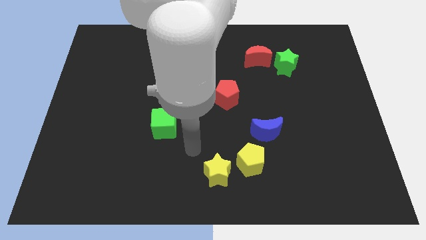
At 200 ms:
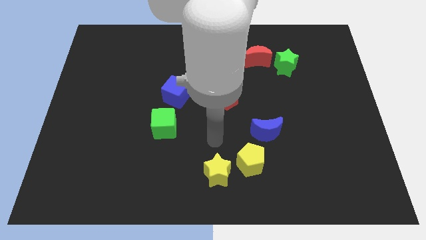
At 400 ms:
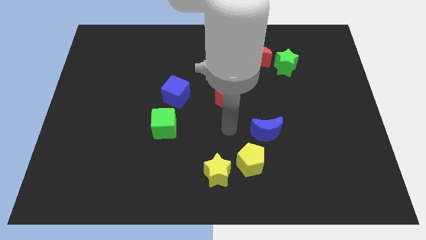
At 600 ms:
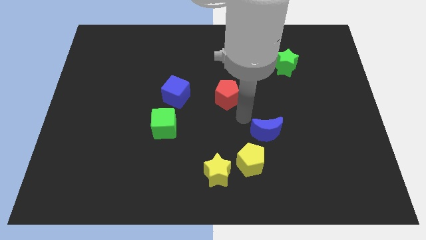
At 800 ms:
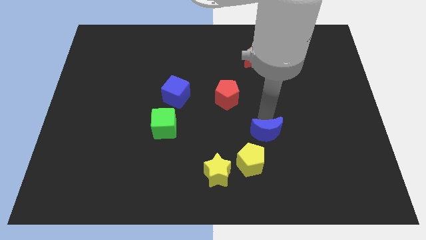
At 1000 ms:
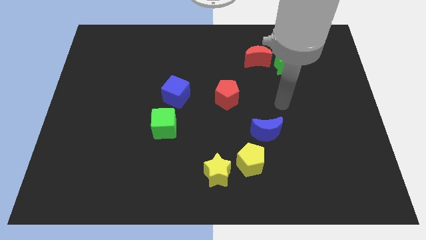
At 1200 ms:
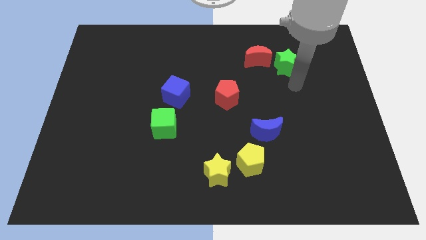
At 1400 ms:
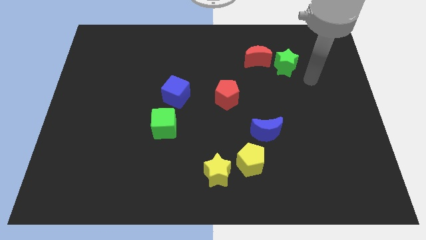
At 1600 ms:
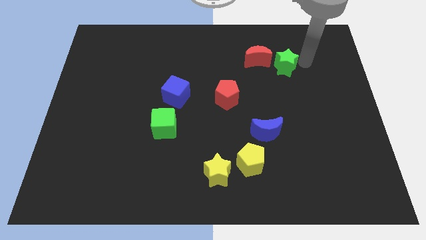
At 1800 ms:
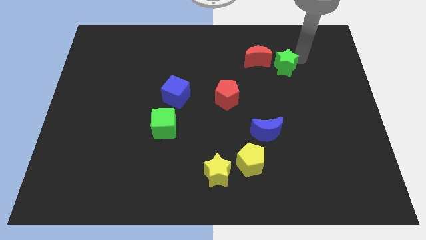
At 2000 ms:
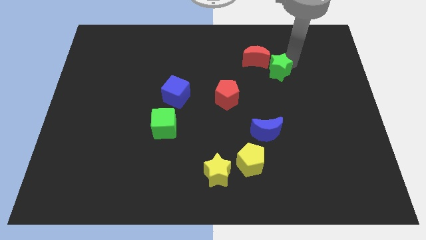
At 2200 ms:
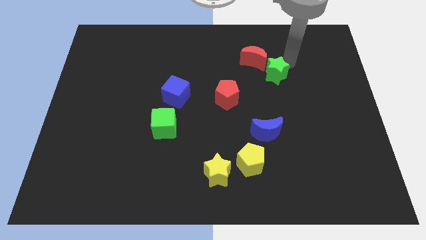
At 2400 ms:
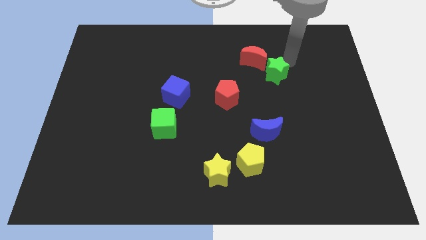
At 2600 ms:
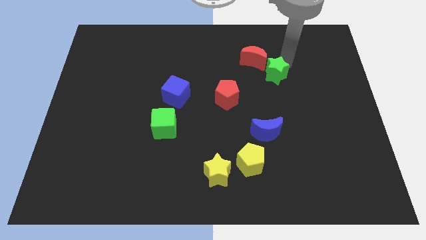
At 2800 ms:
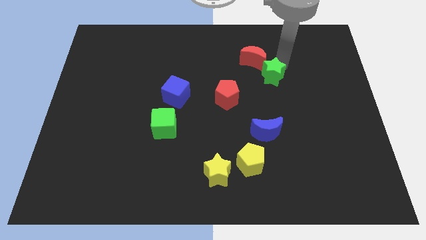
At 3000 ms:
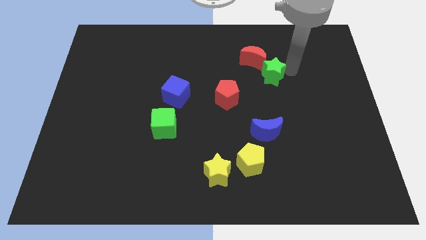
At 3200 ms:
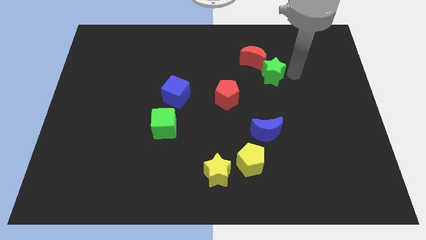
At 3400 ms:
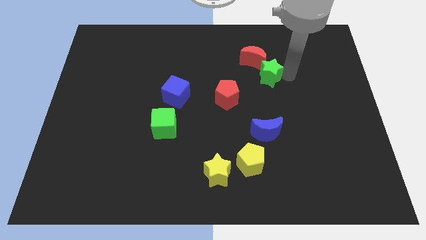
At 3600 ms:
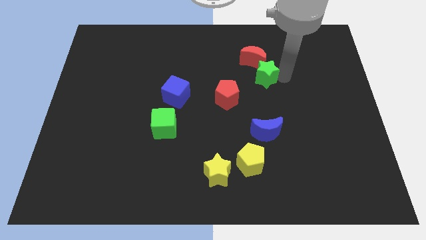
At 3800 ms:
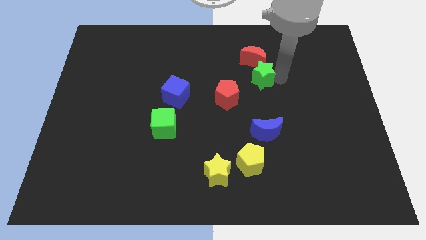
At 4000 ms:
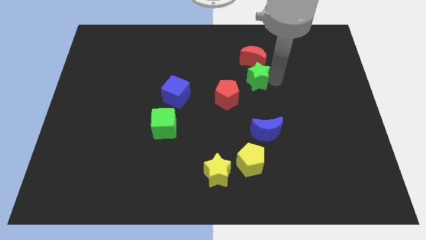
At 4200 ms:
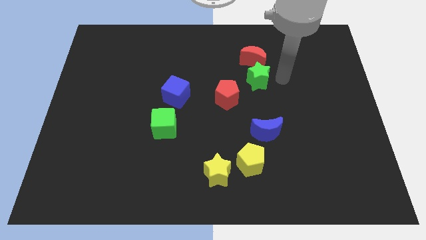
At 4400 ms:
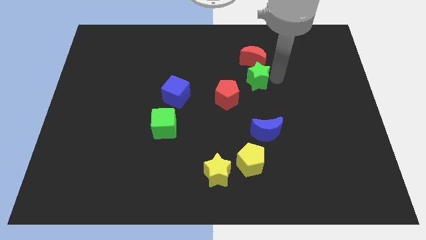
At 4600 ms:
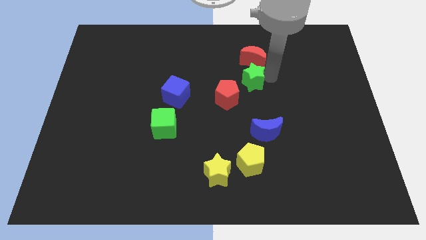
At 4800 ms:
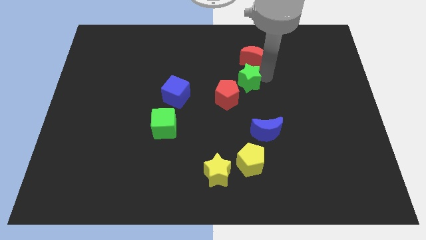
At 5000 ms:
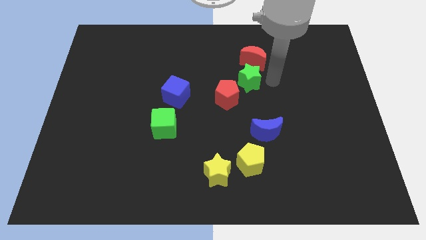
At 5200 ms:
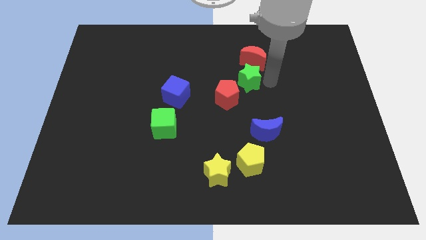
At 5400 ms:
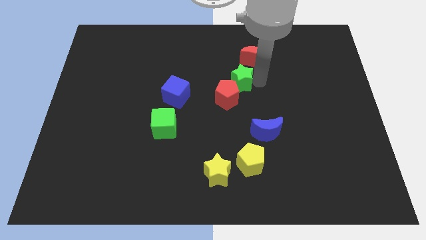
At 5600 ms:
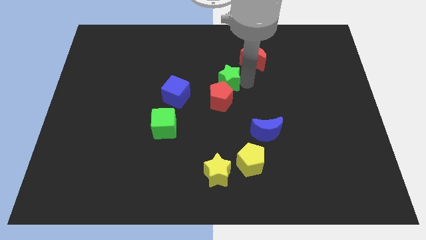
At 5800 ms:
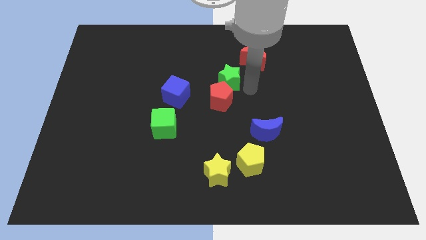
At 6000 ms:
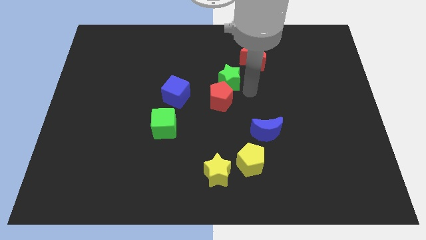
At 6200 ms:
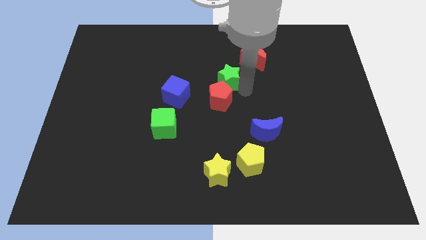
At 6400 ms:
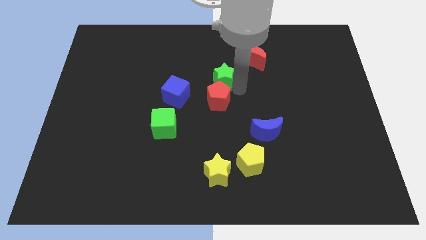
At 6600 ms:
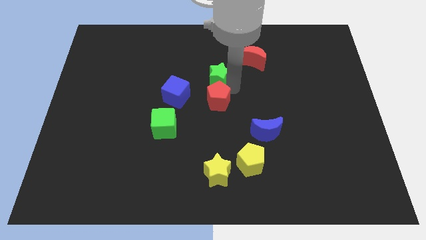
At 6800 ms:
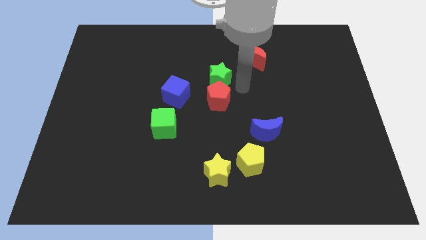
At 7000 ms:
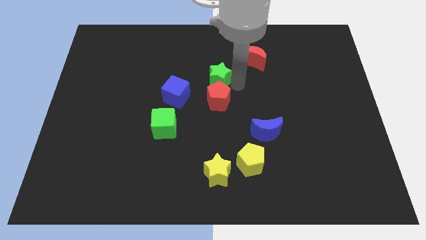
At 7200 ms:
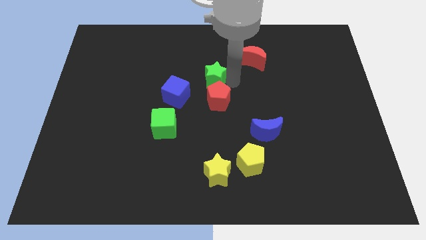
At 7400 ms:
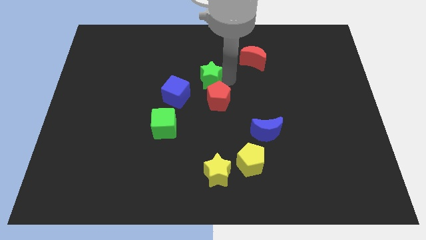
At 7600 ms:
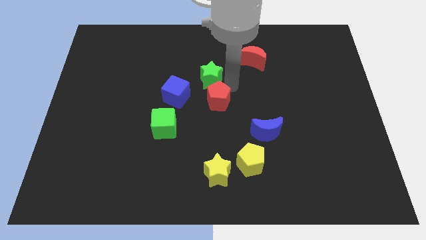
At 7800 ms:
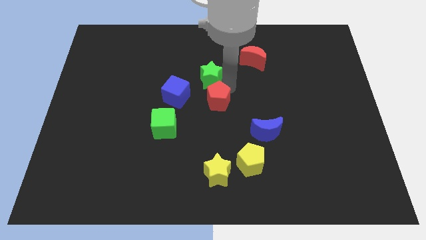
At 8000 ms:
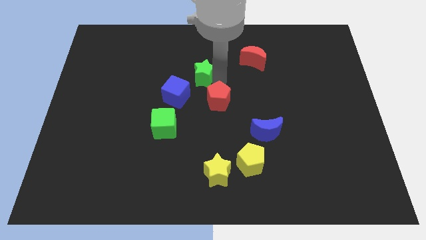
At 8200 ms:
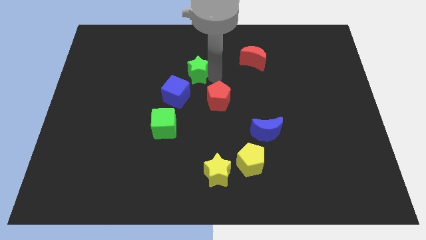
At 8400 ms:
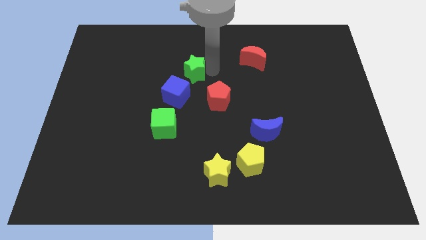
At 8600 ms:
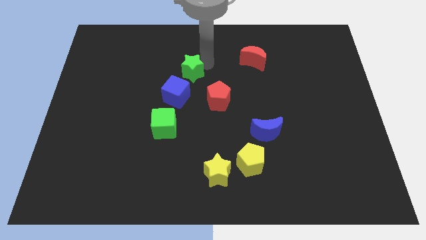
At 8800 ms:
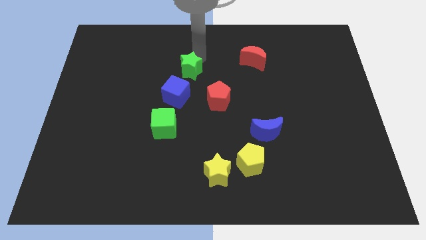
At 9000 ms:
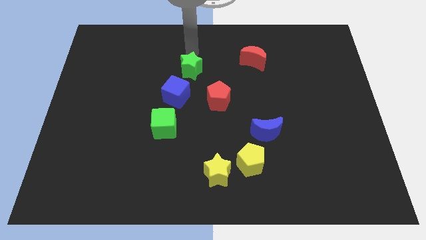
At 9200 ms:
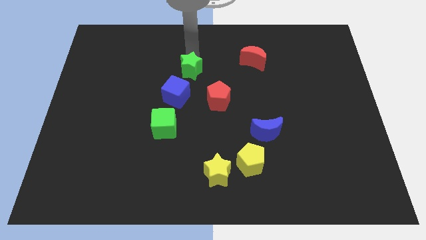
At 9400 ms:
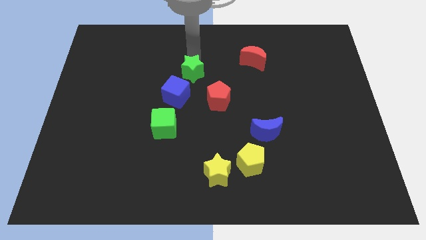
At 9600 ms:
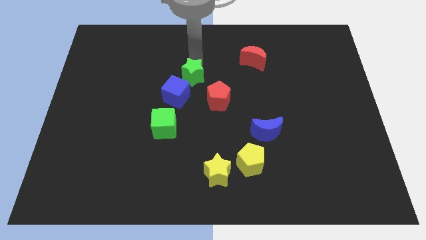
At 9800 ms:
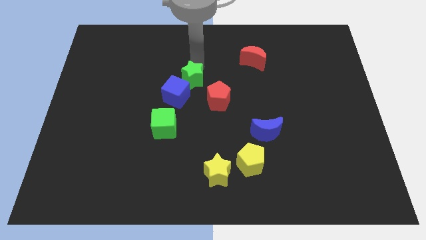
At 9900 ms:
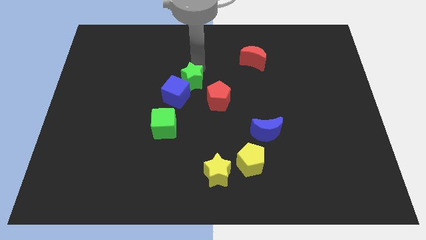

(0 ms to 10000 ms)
slide the green star next to the blue cube

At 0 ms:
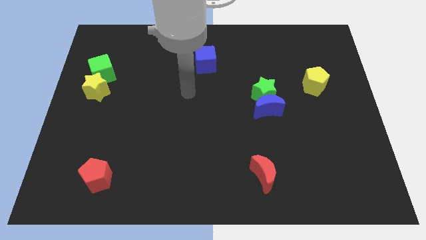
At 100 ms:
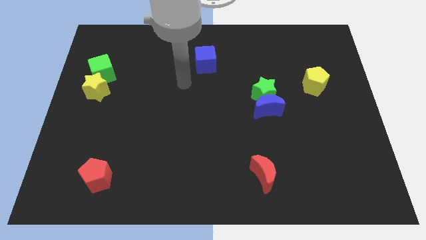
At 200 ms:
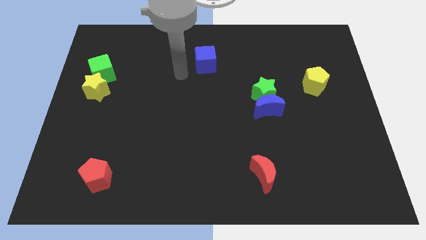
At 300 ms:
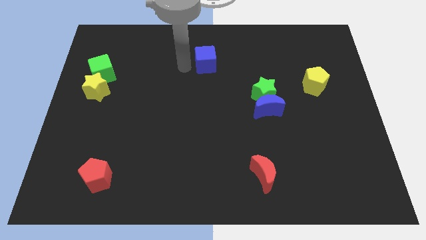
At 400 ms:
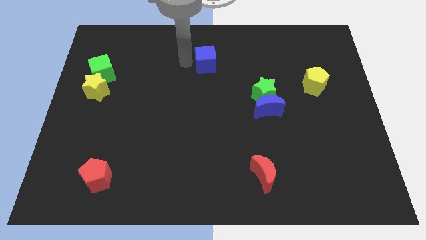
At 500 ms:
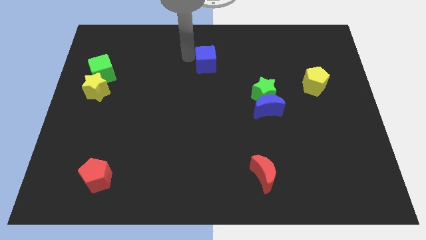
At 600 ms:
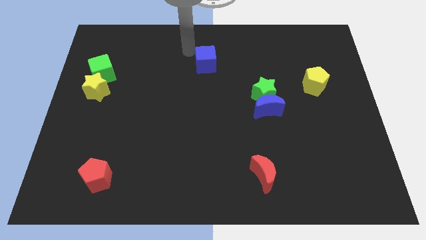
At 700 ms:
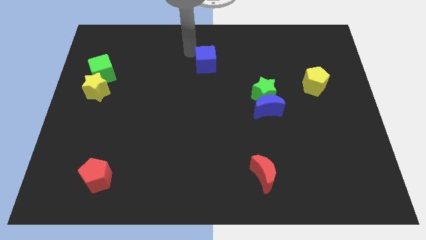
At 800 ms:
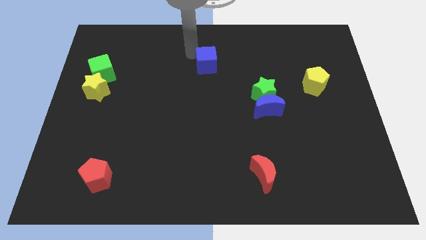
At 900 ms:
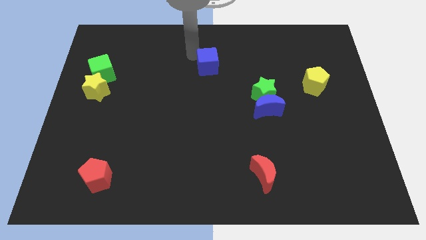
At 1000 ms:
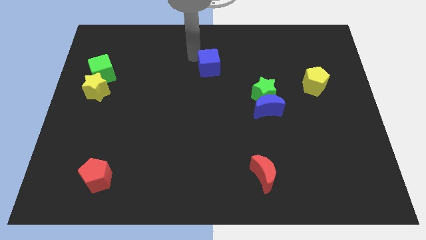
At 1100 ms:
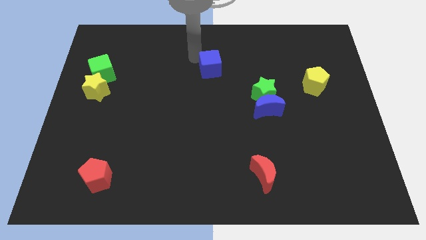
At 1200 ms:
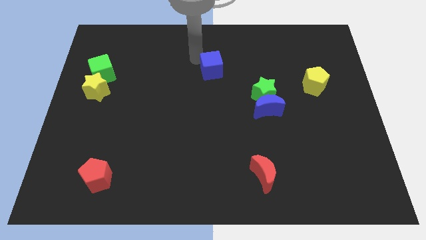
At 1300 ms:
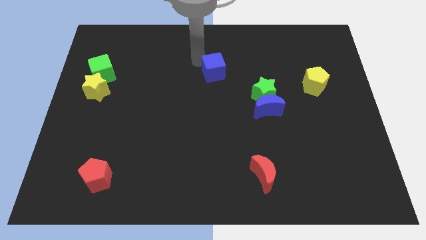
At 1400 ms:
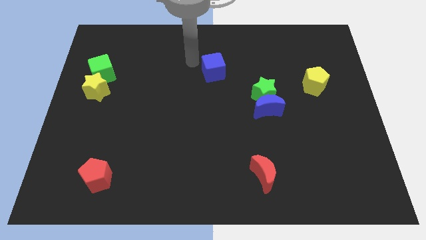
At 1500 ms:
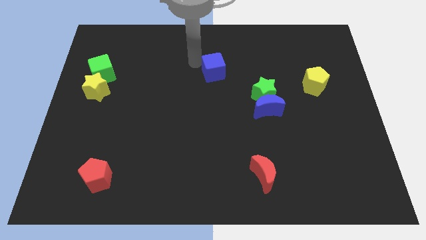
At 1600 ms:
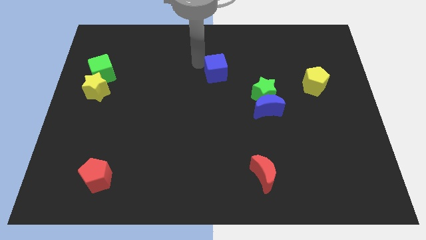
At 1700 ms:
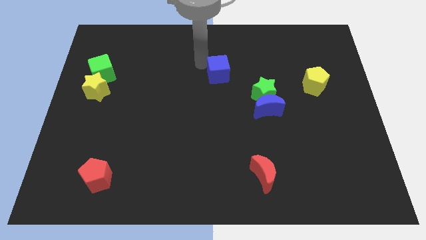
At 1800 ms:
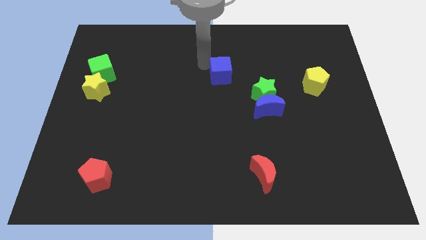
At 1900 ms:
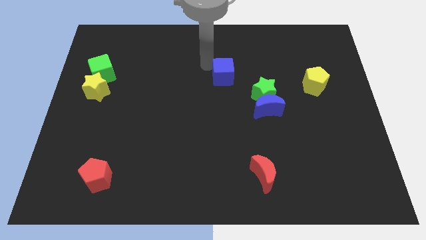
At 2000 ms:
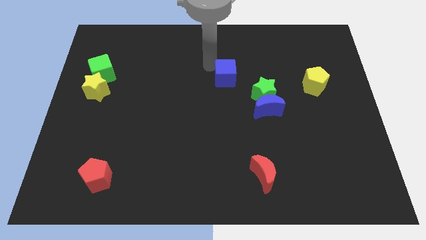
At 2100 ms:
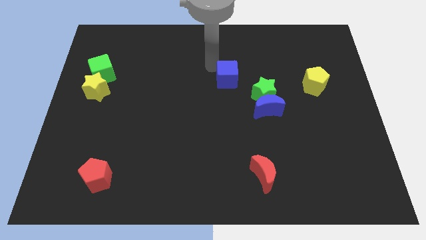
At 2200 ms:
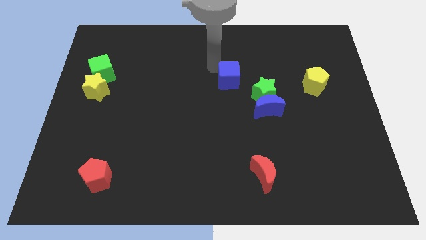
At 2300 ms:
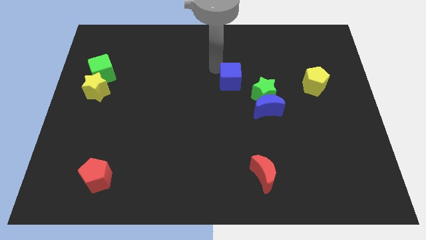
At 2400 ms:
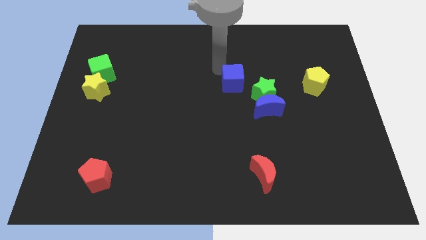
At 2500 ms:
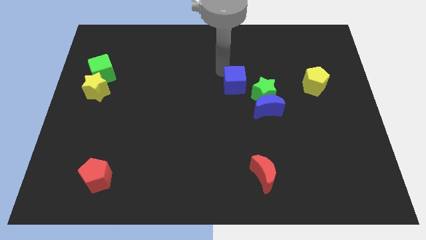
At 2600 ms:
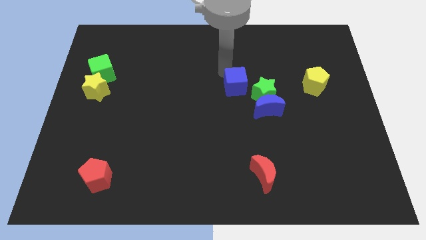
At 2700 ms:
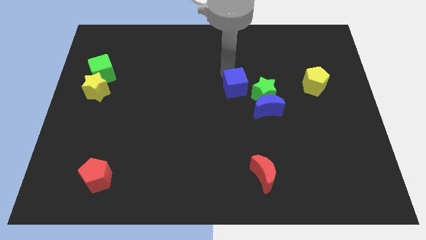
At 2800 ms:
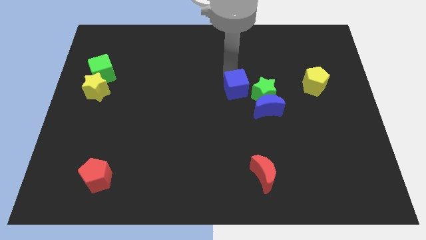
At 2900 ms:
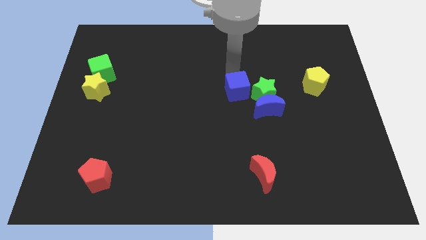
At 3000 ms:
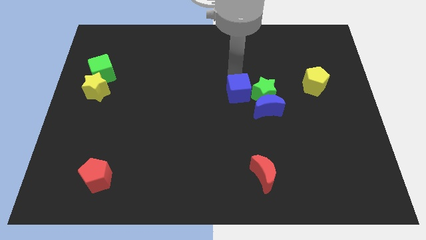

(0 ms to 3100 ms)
put the blue cube to the green star
